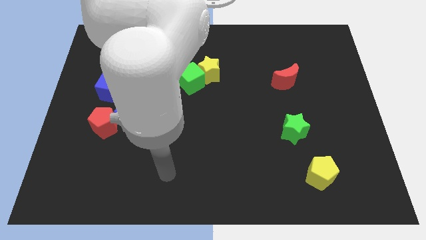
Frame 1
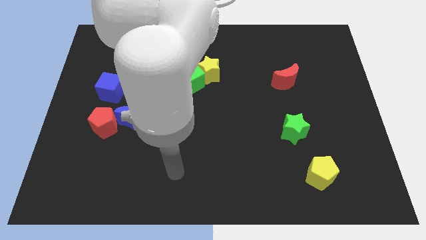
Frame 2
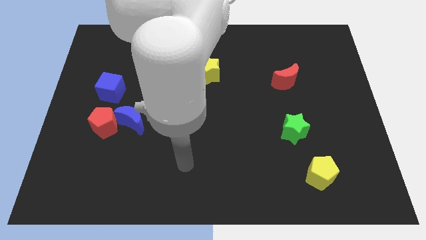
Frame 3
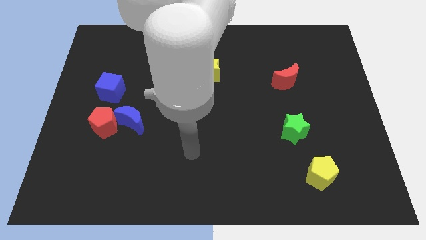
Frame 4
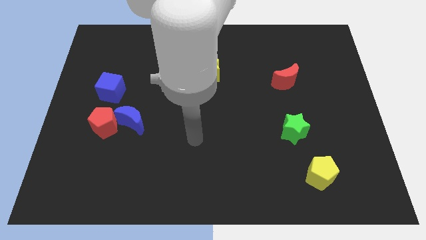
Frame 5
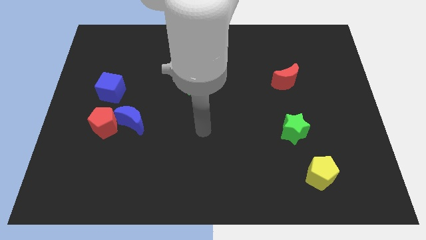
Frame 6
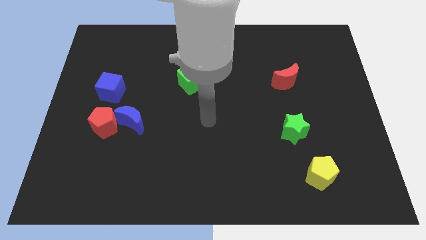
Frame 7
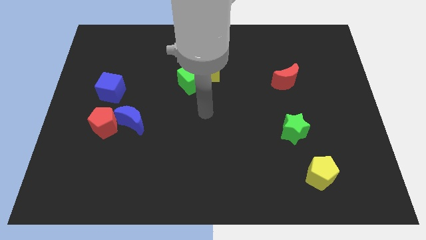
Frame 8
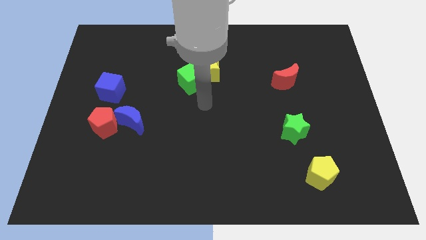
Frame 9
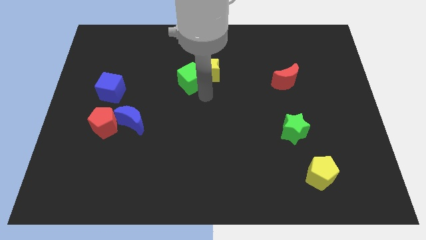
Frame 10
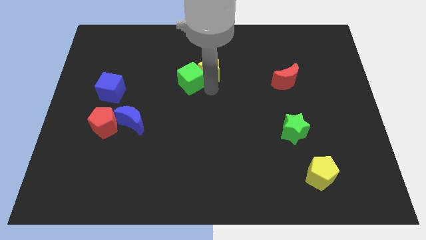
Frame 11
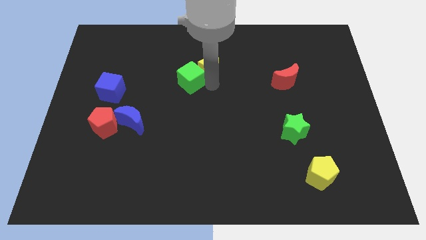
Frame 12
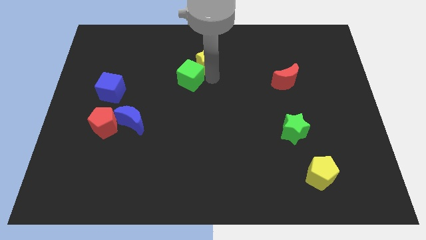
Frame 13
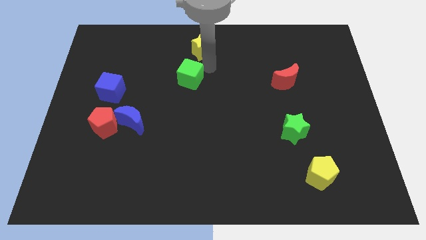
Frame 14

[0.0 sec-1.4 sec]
move the green cube away from the yellow star

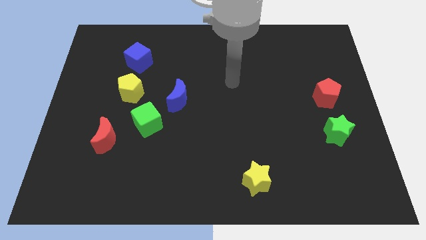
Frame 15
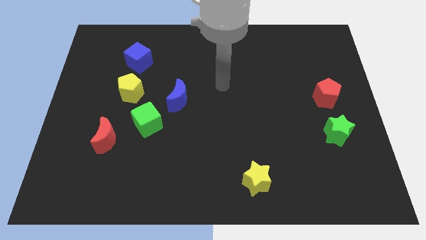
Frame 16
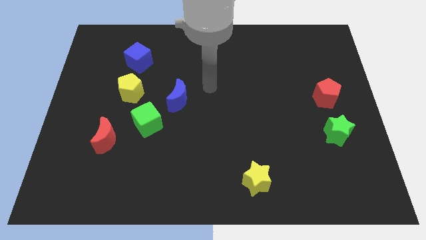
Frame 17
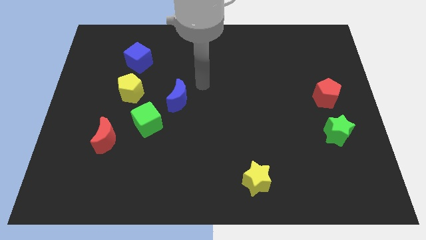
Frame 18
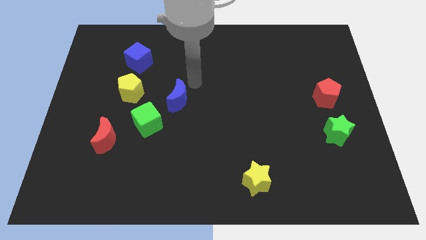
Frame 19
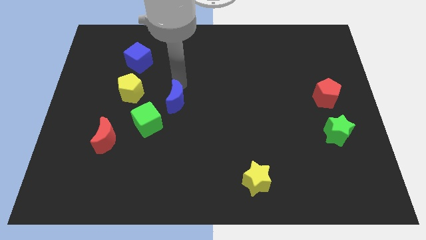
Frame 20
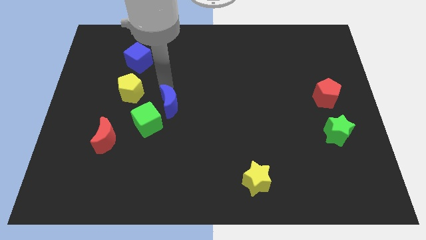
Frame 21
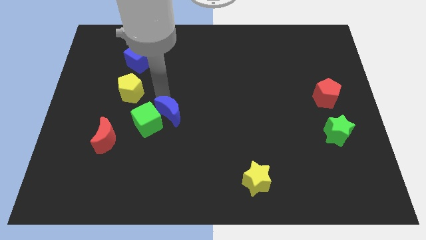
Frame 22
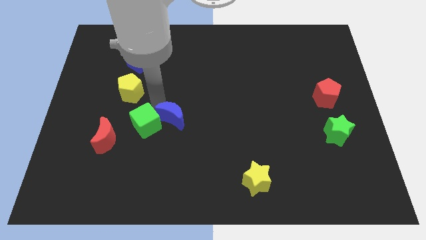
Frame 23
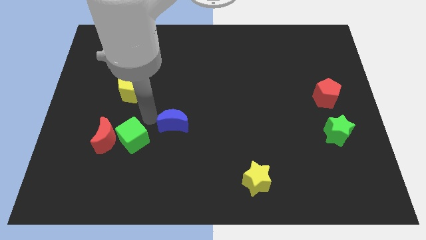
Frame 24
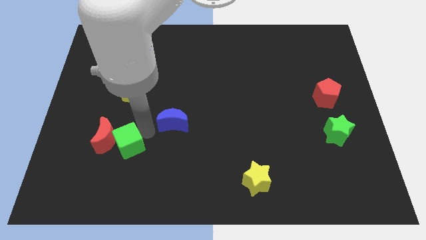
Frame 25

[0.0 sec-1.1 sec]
move the blue moon away from the green cube

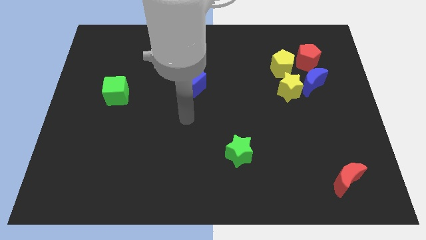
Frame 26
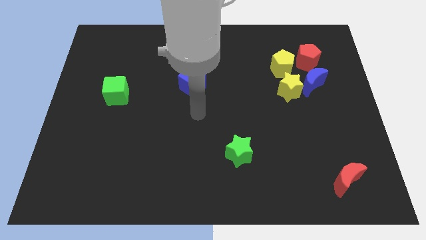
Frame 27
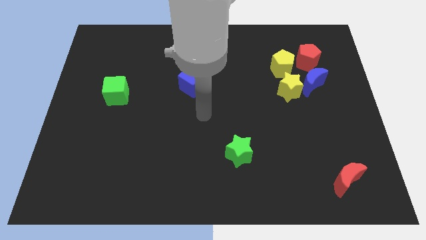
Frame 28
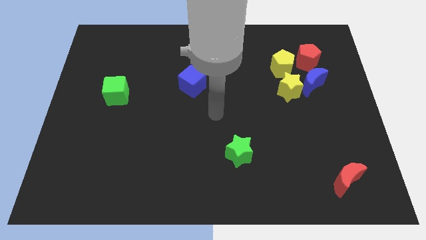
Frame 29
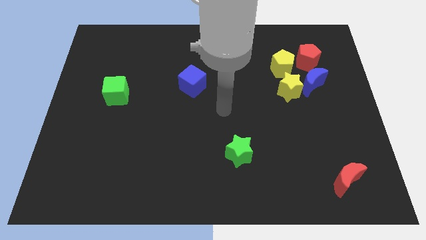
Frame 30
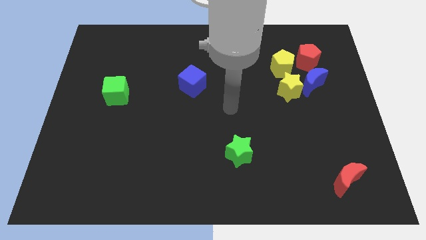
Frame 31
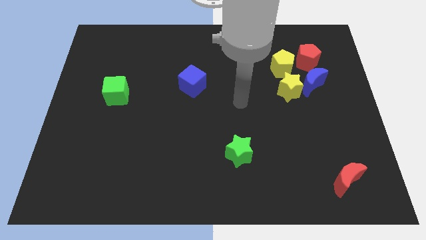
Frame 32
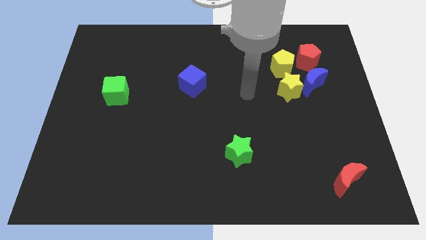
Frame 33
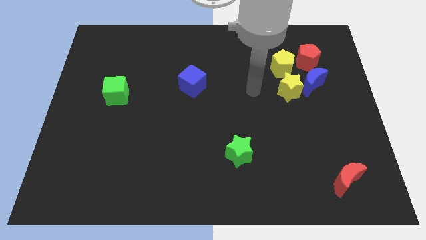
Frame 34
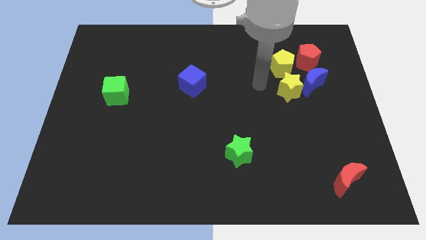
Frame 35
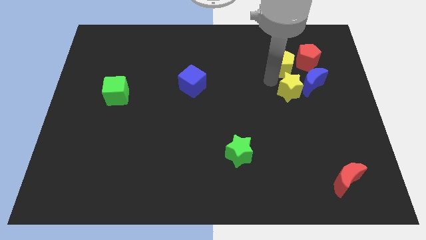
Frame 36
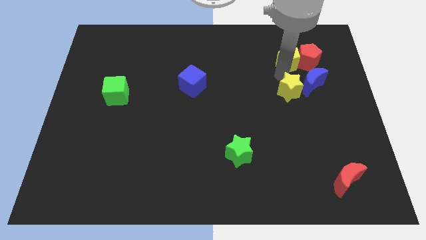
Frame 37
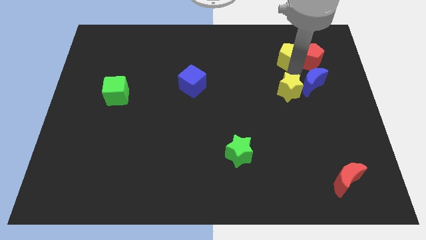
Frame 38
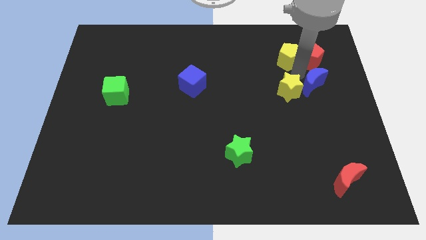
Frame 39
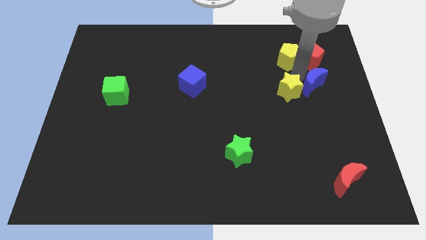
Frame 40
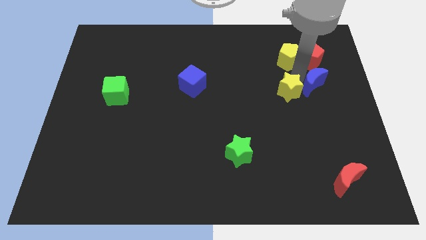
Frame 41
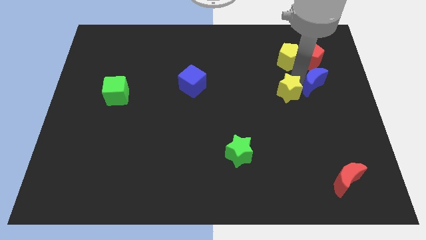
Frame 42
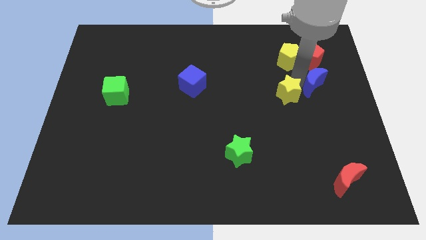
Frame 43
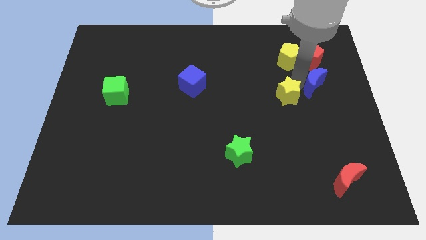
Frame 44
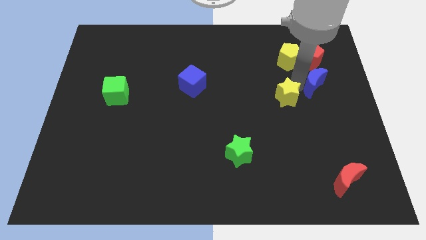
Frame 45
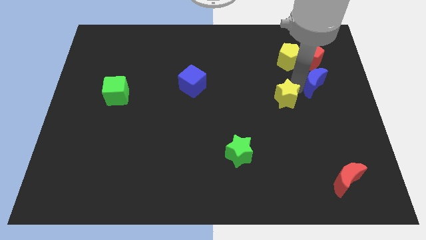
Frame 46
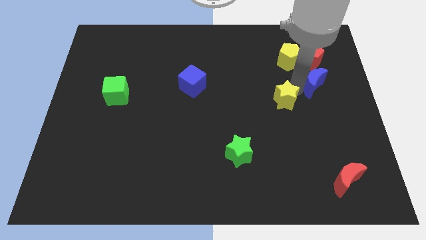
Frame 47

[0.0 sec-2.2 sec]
separate the yellow star from the blue moon and yellow pentagon

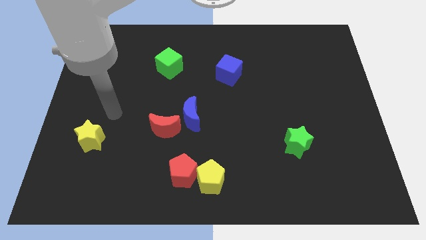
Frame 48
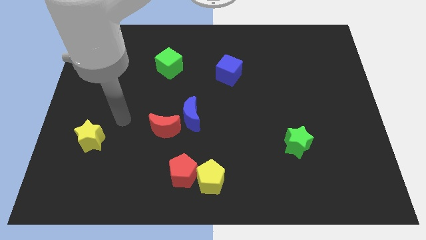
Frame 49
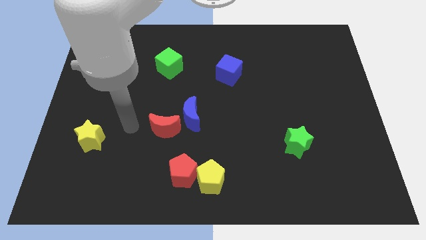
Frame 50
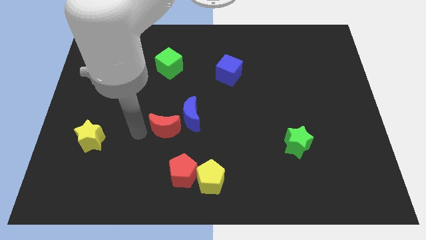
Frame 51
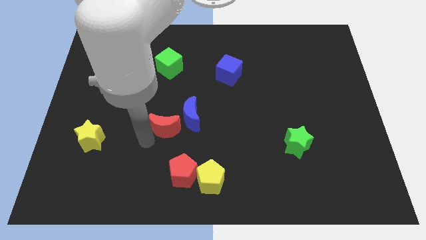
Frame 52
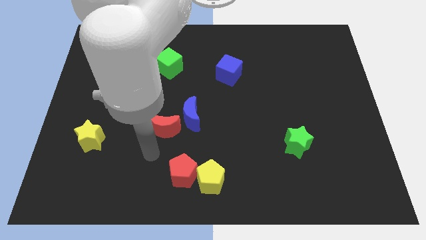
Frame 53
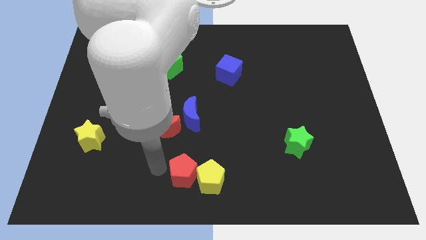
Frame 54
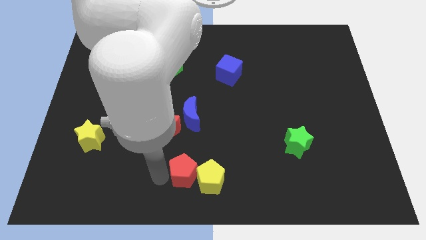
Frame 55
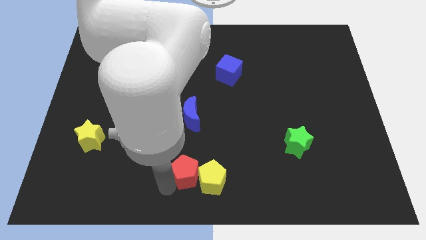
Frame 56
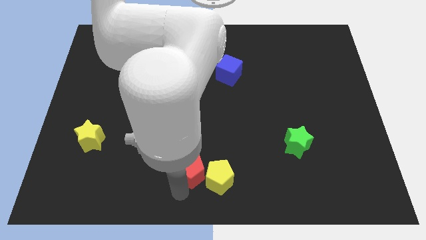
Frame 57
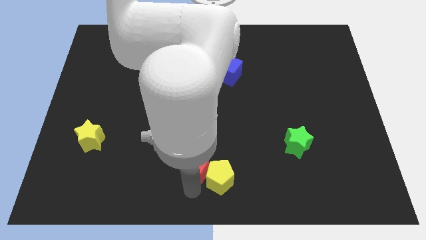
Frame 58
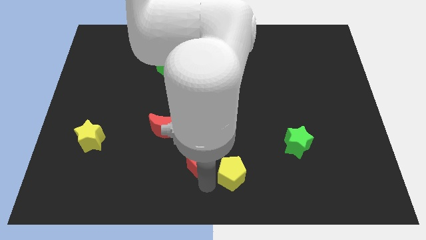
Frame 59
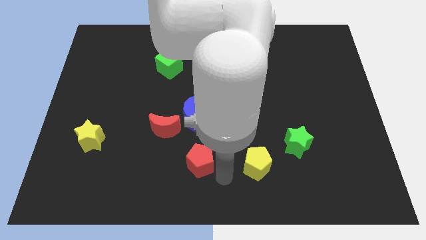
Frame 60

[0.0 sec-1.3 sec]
move the red pentagon away from the yellow pentagon

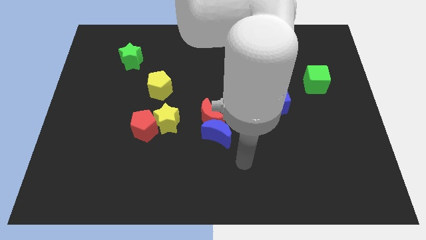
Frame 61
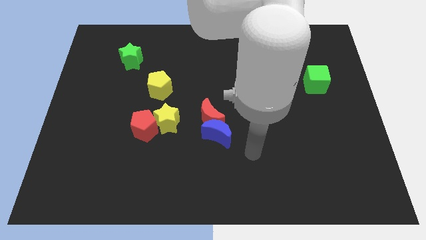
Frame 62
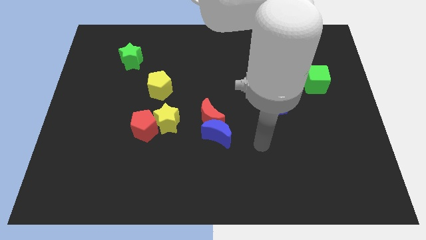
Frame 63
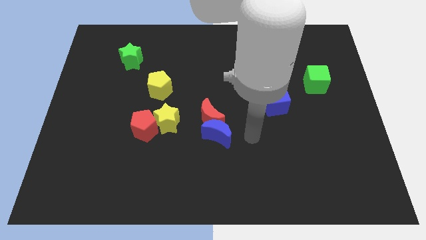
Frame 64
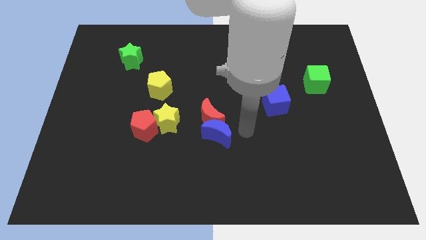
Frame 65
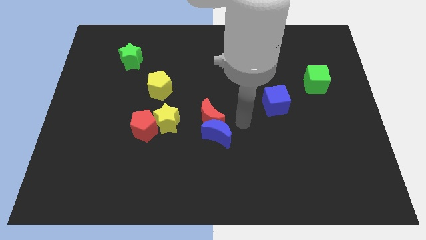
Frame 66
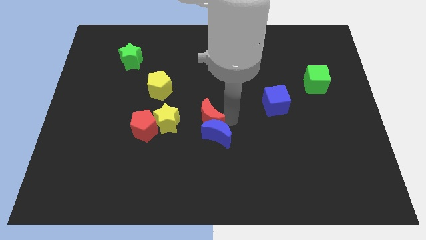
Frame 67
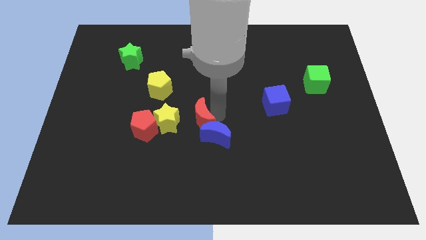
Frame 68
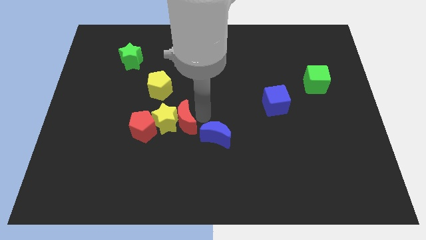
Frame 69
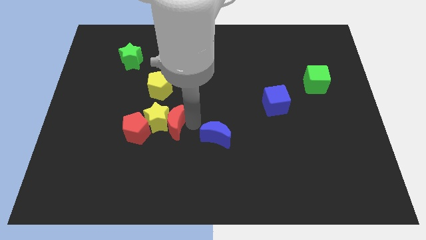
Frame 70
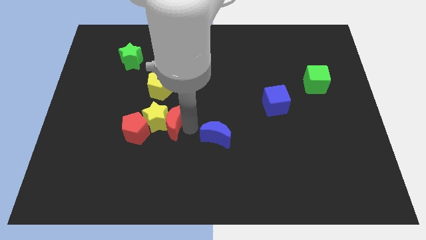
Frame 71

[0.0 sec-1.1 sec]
pull the blue moon apart from the red moon

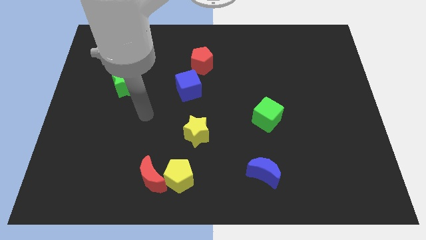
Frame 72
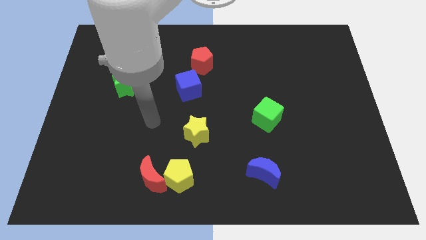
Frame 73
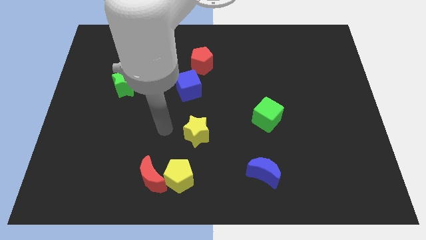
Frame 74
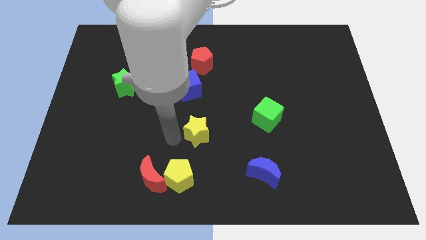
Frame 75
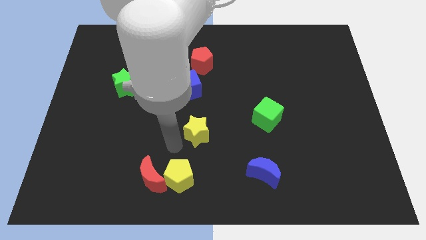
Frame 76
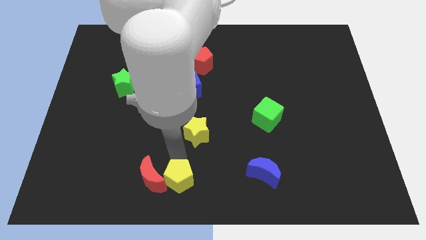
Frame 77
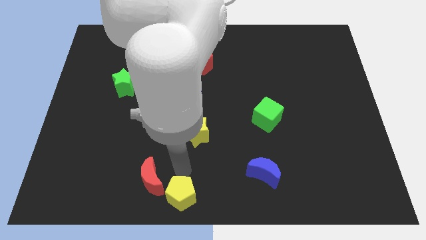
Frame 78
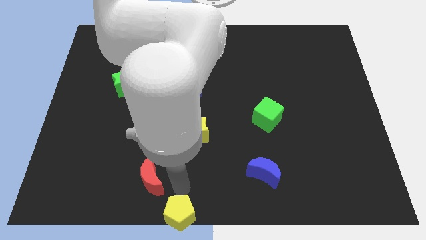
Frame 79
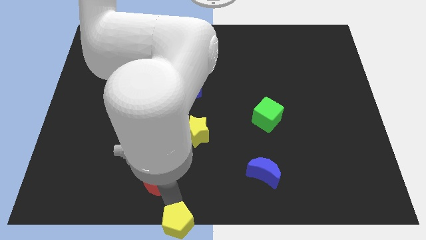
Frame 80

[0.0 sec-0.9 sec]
move the red moon away from the yellow pentagon

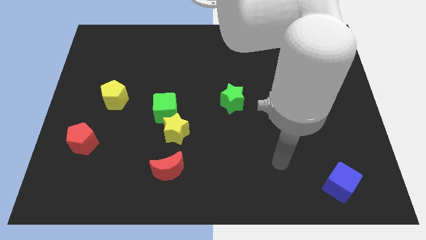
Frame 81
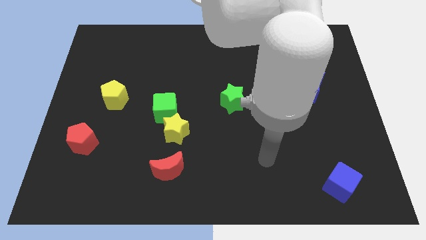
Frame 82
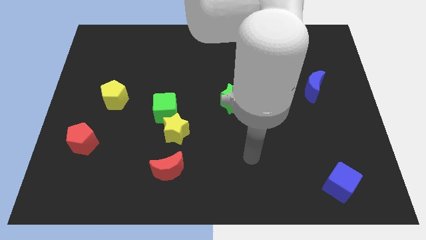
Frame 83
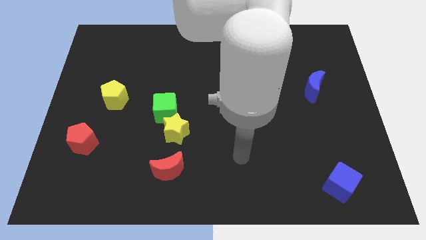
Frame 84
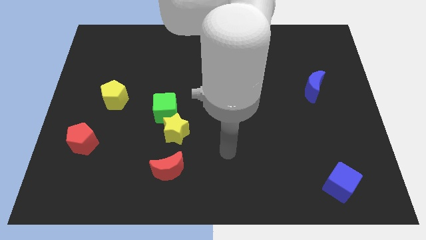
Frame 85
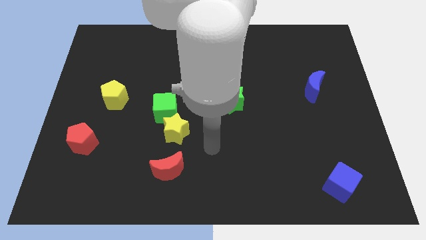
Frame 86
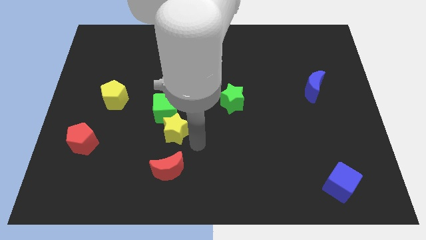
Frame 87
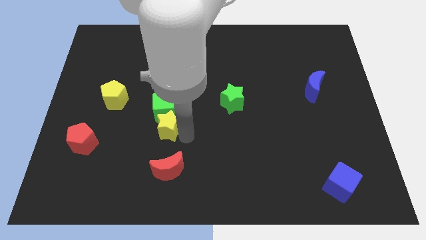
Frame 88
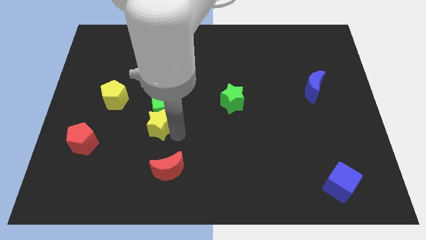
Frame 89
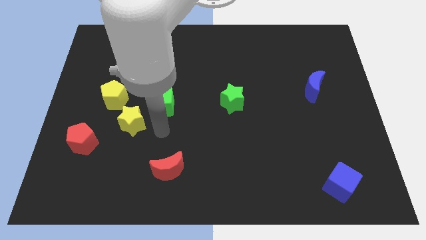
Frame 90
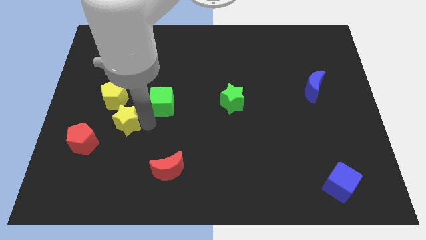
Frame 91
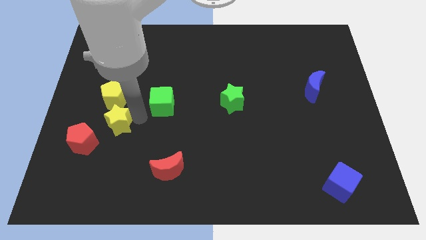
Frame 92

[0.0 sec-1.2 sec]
pull the green cube apart from the yellow star
